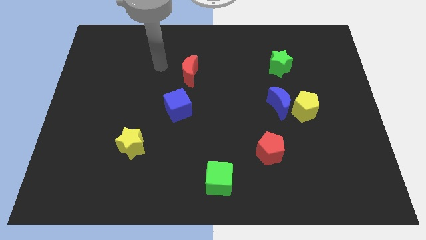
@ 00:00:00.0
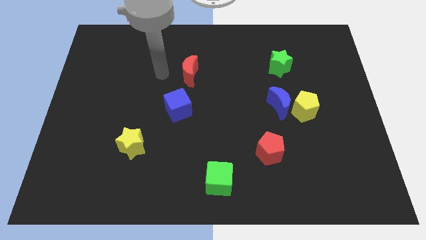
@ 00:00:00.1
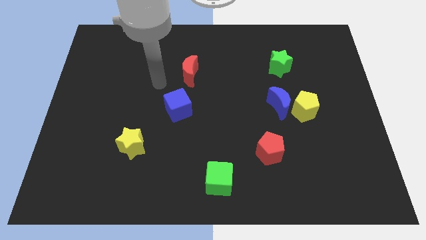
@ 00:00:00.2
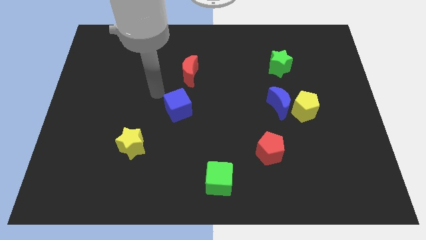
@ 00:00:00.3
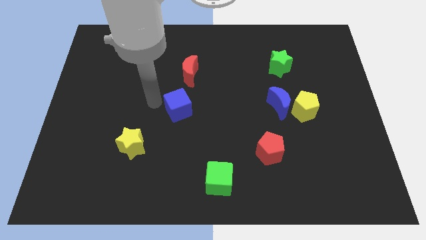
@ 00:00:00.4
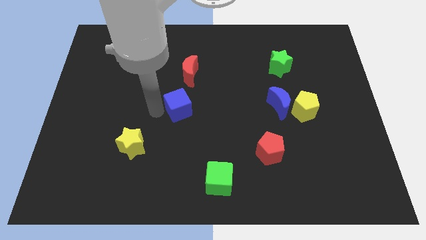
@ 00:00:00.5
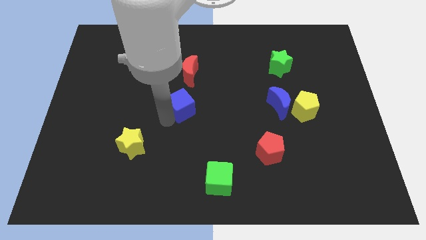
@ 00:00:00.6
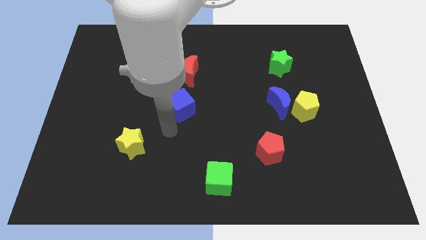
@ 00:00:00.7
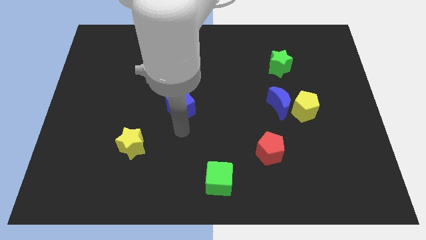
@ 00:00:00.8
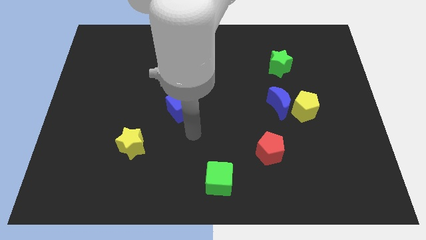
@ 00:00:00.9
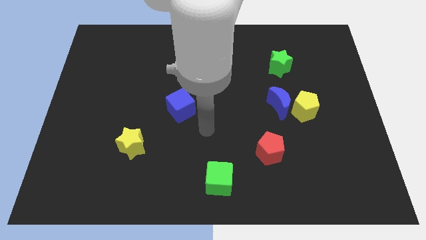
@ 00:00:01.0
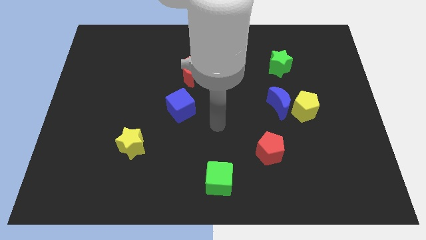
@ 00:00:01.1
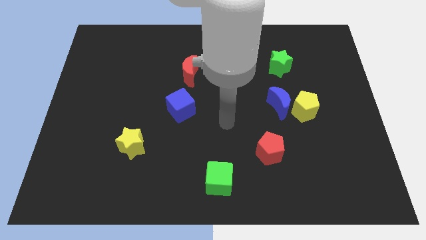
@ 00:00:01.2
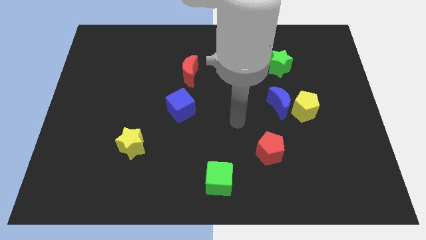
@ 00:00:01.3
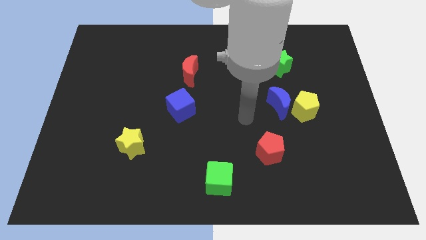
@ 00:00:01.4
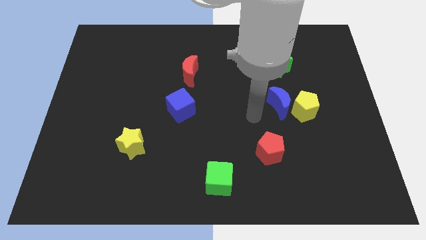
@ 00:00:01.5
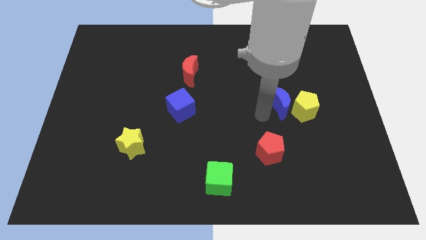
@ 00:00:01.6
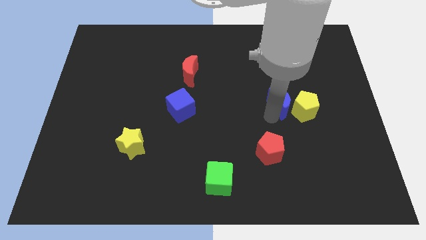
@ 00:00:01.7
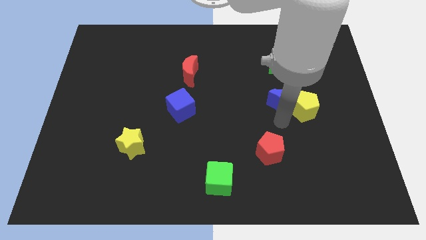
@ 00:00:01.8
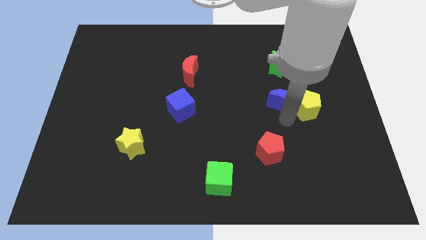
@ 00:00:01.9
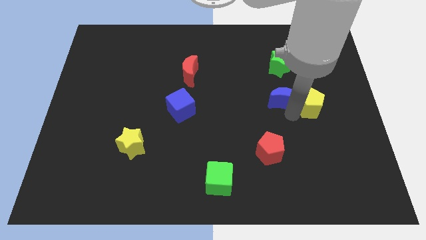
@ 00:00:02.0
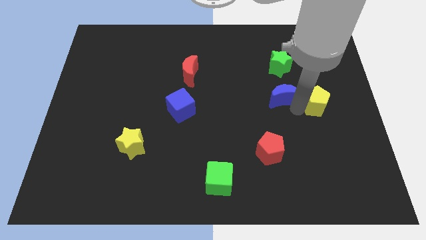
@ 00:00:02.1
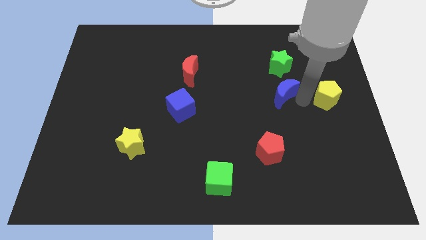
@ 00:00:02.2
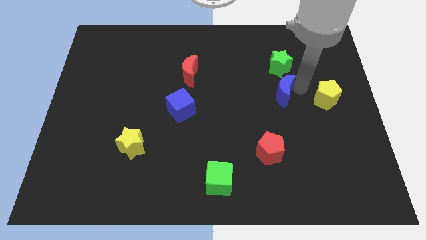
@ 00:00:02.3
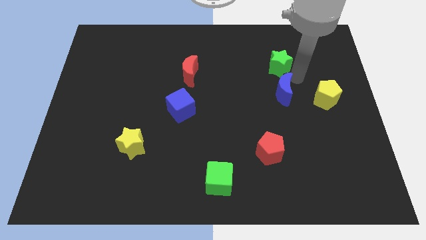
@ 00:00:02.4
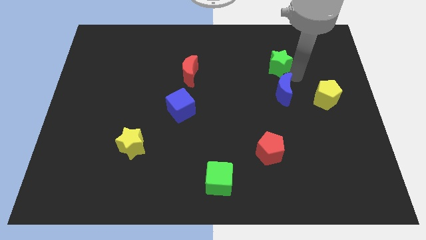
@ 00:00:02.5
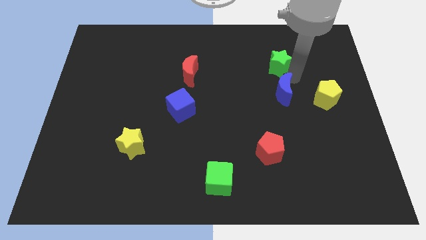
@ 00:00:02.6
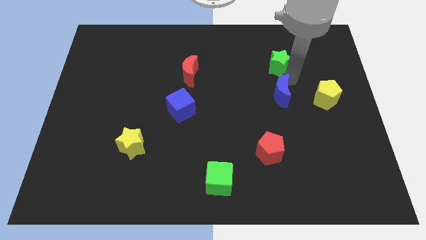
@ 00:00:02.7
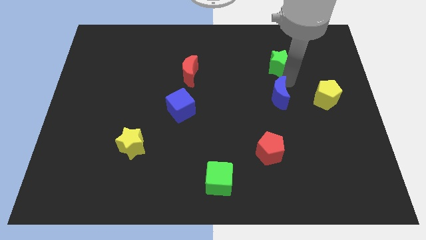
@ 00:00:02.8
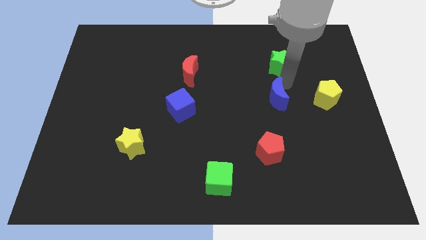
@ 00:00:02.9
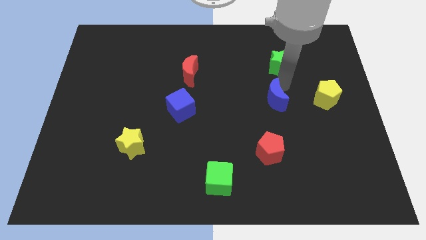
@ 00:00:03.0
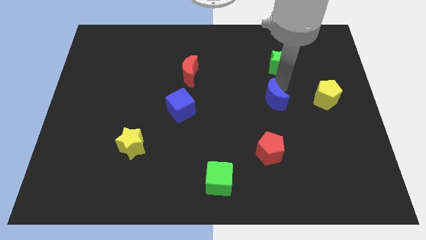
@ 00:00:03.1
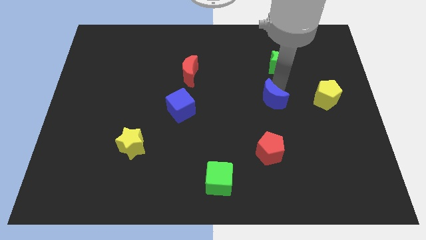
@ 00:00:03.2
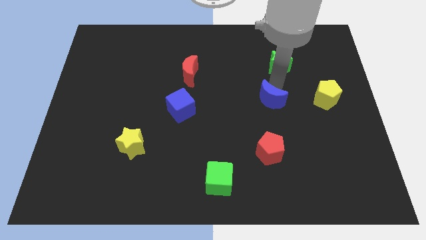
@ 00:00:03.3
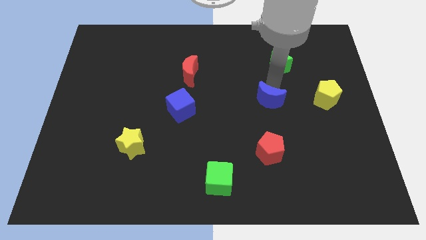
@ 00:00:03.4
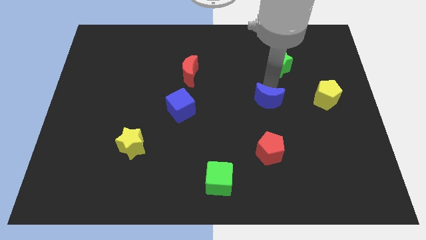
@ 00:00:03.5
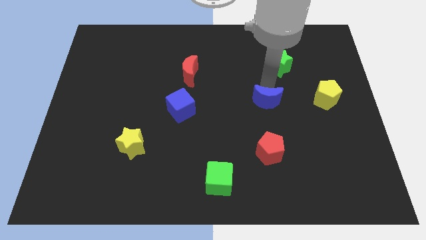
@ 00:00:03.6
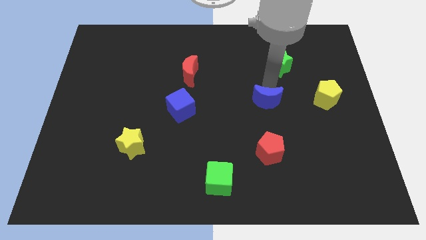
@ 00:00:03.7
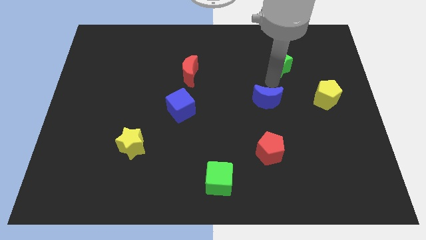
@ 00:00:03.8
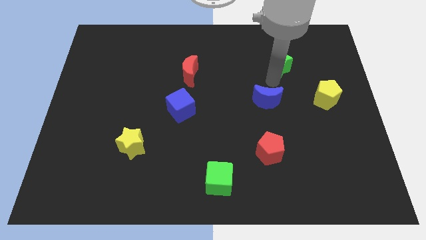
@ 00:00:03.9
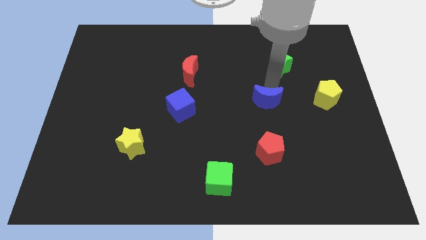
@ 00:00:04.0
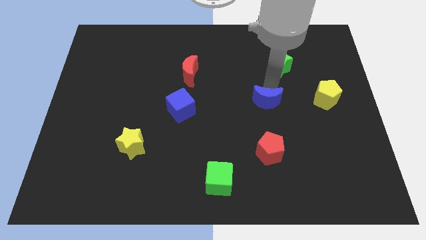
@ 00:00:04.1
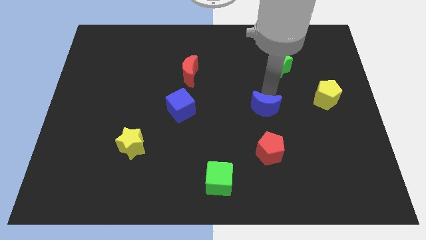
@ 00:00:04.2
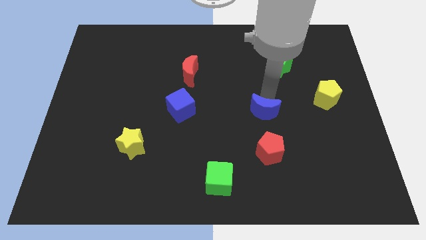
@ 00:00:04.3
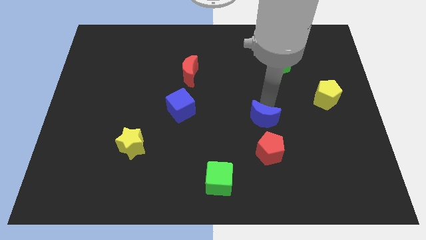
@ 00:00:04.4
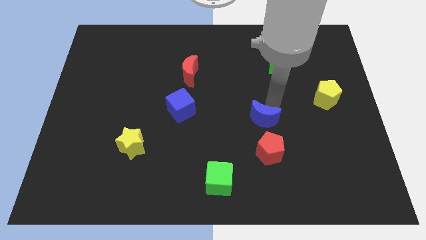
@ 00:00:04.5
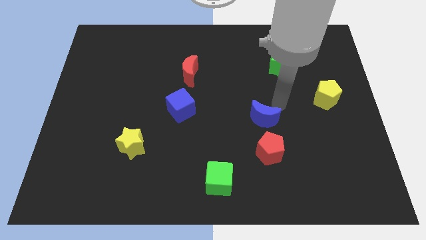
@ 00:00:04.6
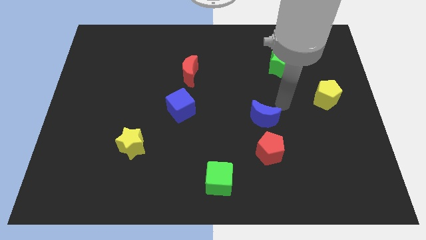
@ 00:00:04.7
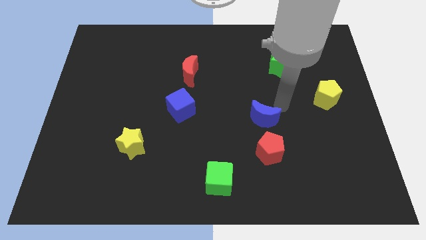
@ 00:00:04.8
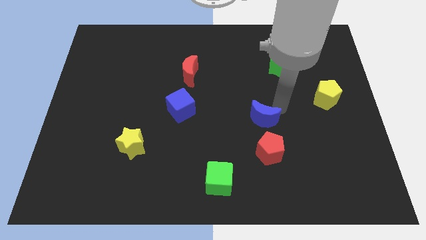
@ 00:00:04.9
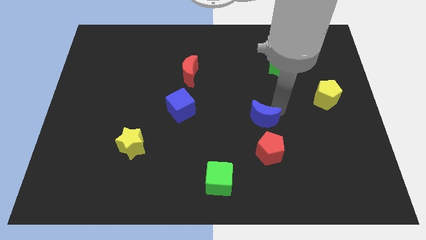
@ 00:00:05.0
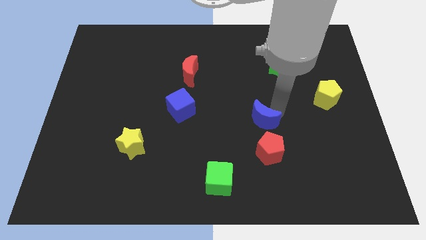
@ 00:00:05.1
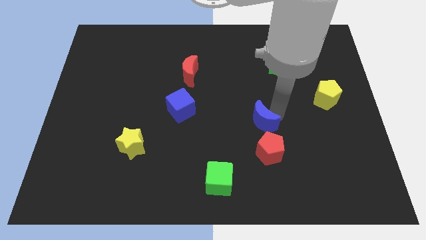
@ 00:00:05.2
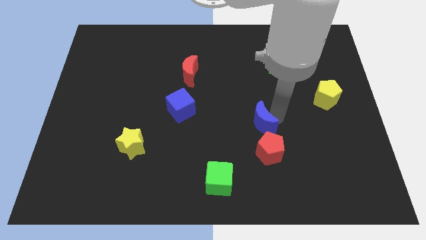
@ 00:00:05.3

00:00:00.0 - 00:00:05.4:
slide the blue moon to the top left of the red pentagon

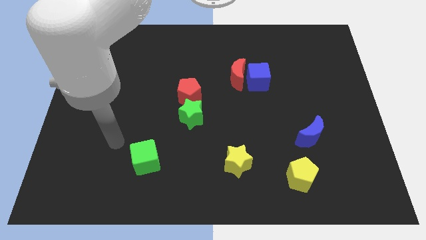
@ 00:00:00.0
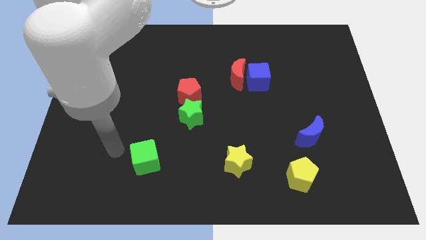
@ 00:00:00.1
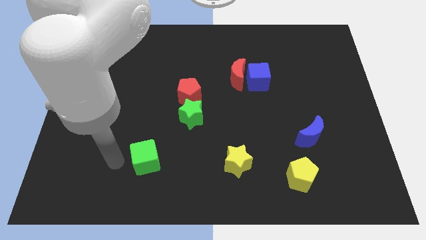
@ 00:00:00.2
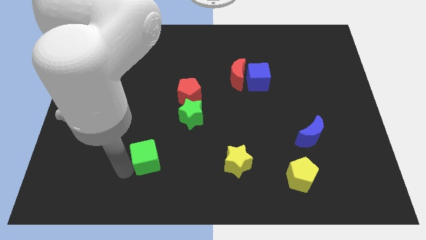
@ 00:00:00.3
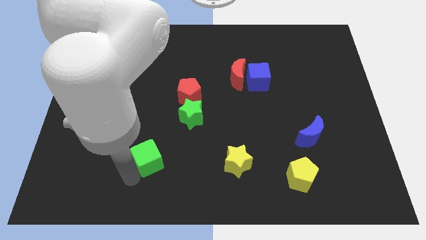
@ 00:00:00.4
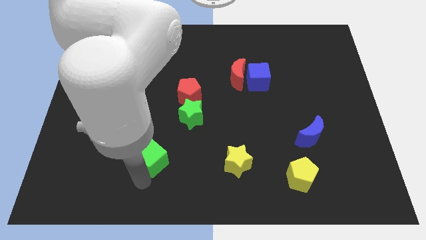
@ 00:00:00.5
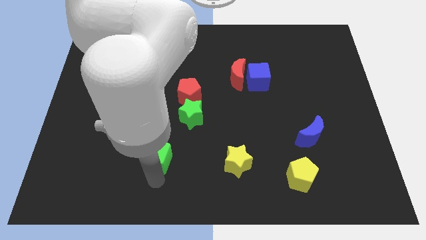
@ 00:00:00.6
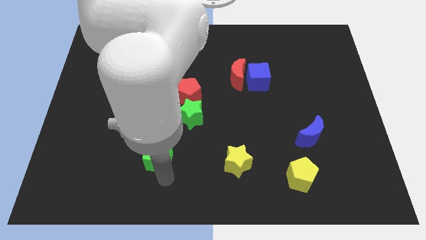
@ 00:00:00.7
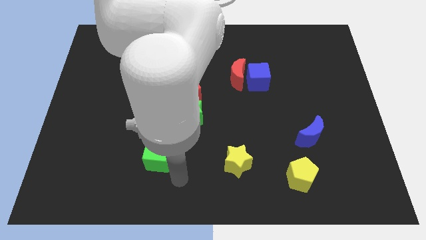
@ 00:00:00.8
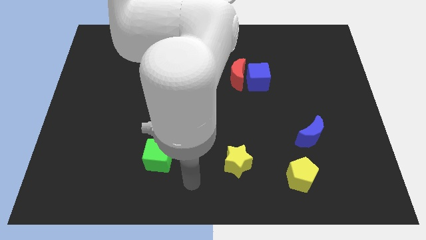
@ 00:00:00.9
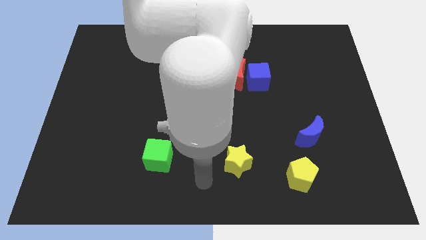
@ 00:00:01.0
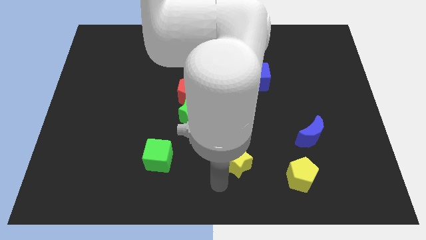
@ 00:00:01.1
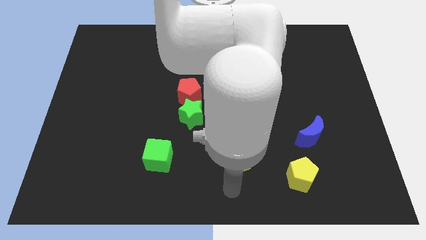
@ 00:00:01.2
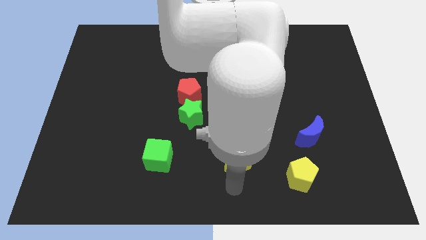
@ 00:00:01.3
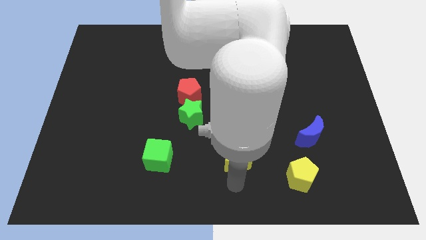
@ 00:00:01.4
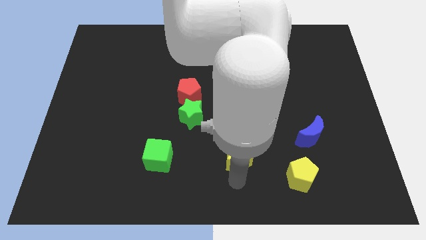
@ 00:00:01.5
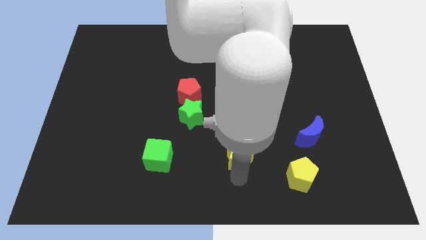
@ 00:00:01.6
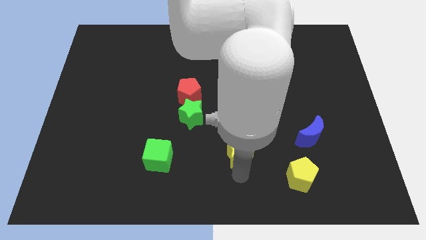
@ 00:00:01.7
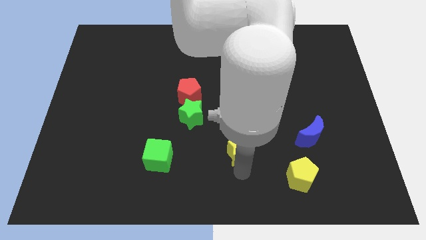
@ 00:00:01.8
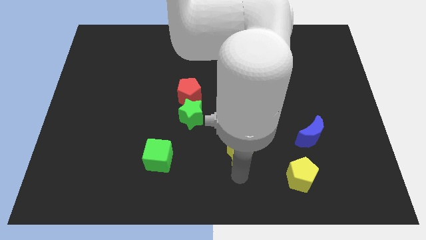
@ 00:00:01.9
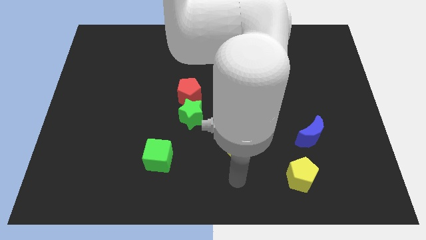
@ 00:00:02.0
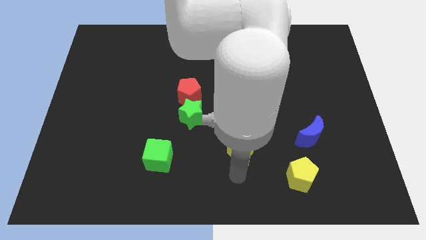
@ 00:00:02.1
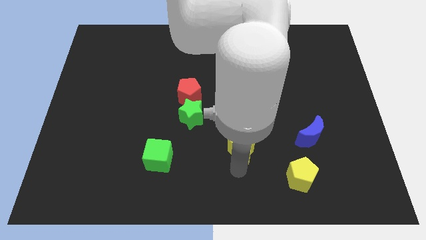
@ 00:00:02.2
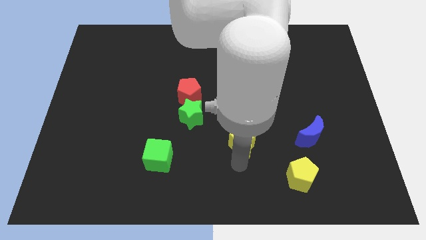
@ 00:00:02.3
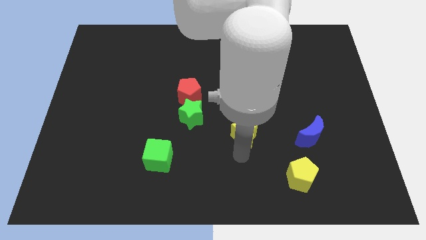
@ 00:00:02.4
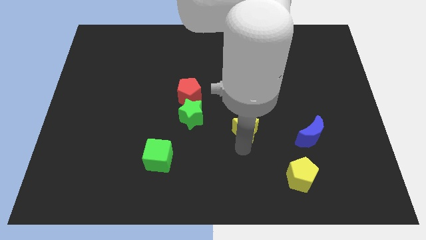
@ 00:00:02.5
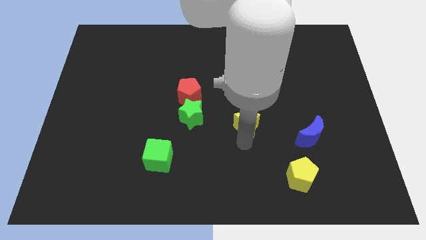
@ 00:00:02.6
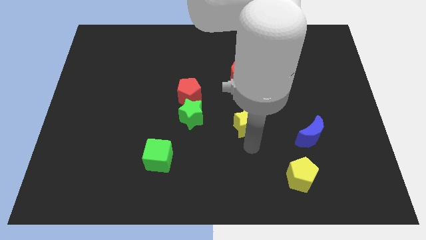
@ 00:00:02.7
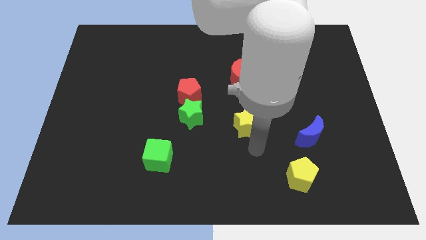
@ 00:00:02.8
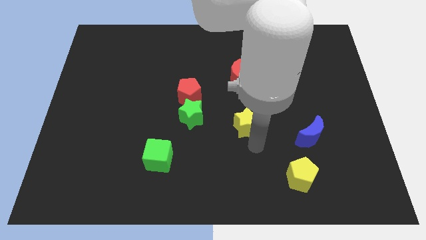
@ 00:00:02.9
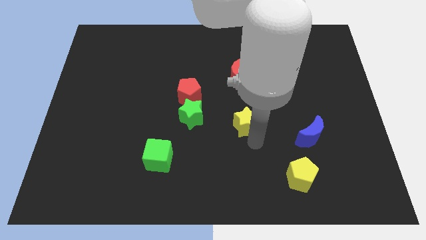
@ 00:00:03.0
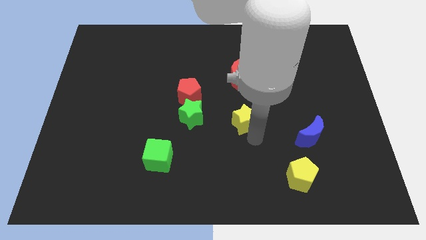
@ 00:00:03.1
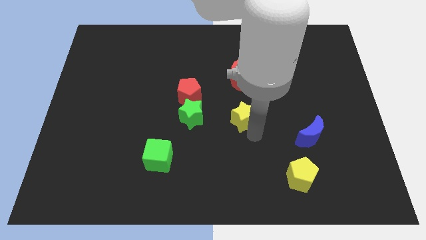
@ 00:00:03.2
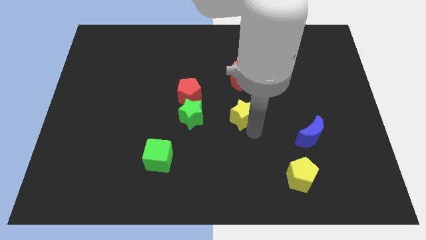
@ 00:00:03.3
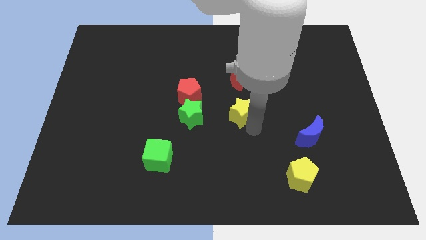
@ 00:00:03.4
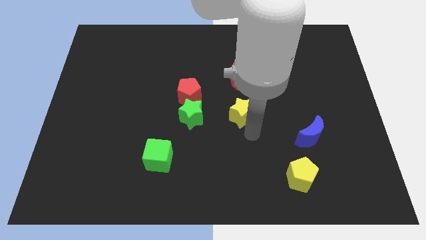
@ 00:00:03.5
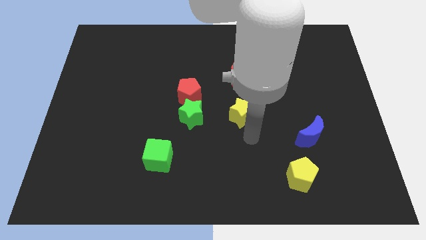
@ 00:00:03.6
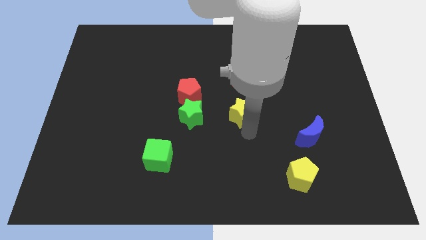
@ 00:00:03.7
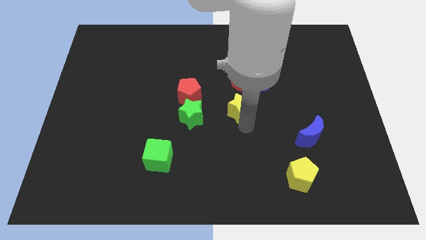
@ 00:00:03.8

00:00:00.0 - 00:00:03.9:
push the yellow star to the right of the red pentagon
